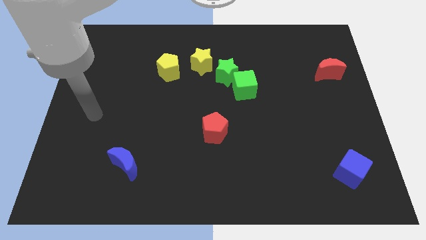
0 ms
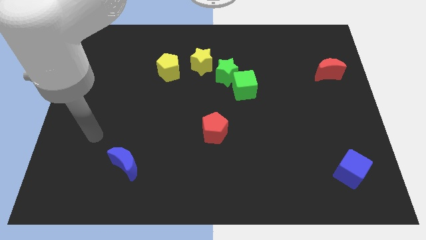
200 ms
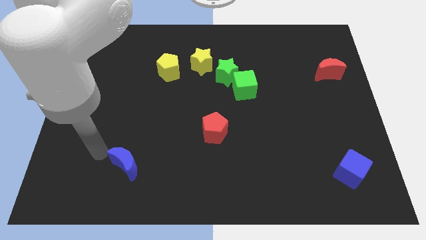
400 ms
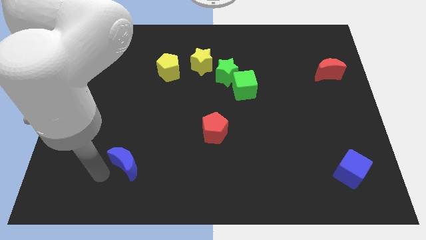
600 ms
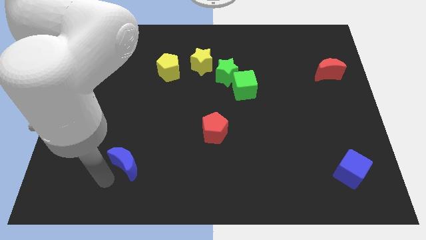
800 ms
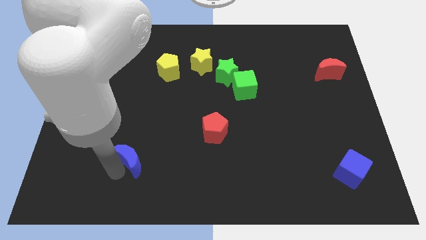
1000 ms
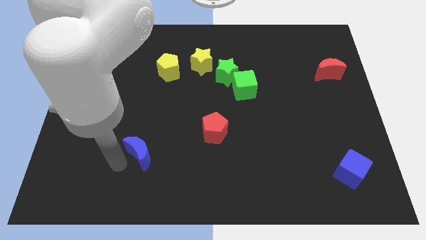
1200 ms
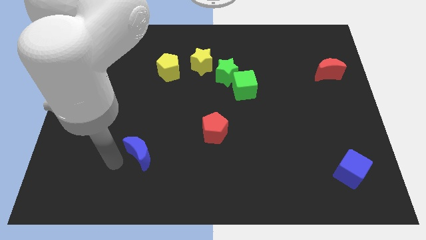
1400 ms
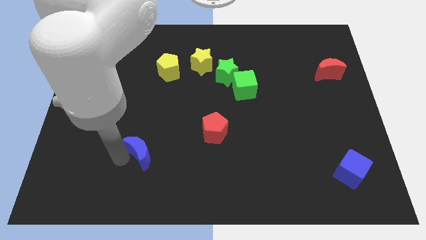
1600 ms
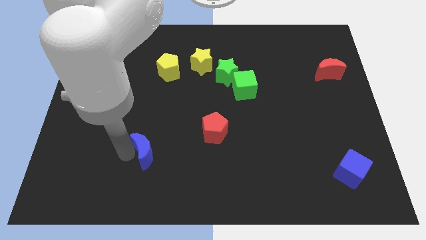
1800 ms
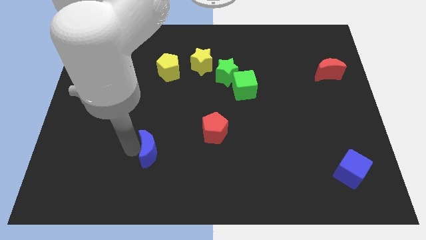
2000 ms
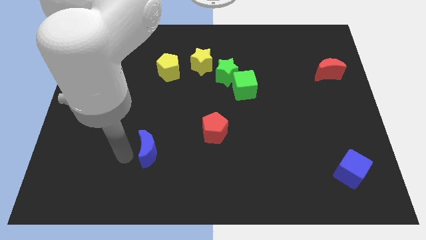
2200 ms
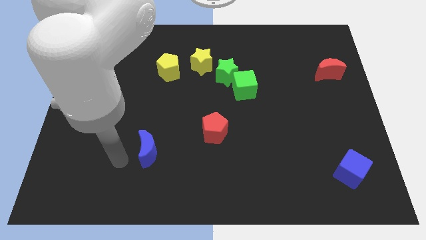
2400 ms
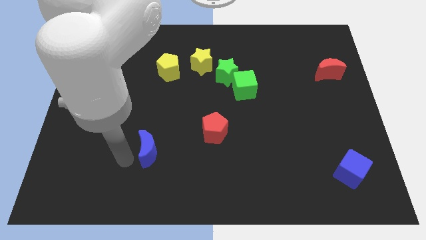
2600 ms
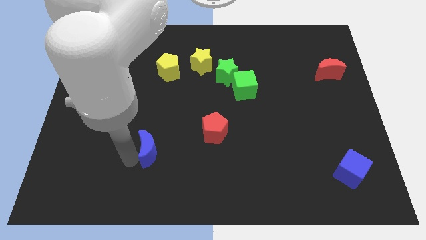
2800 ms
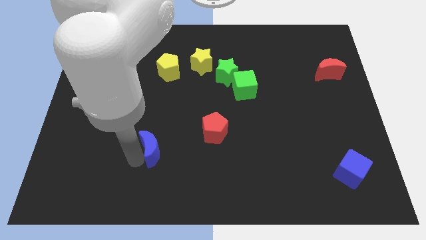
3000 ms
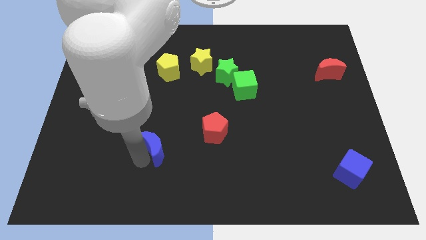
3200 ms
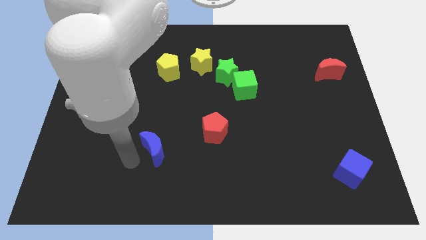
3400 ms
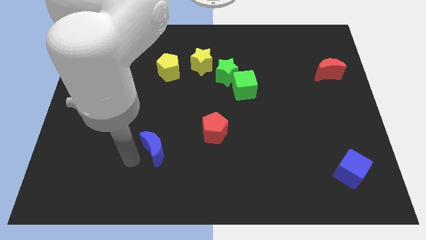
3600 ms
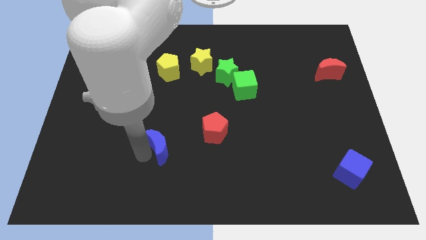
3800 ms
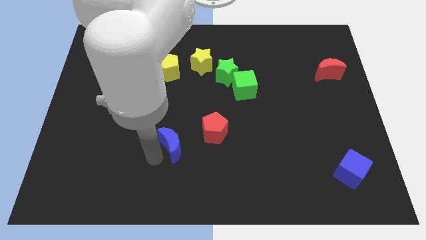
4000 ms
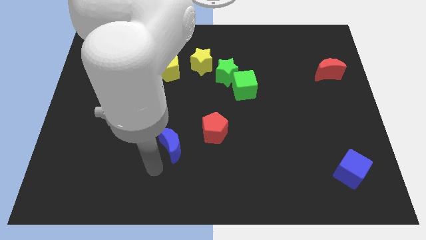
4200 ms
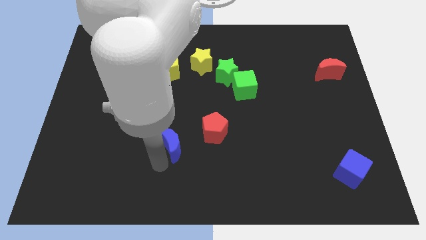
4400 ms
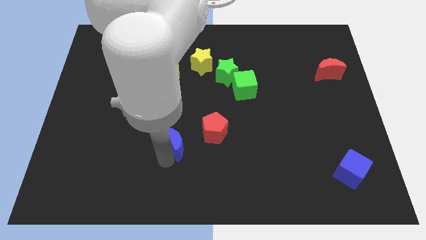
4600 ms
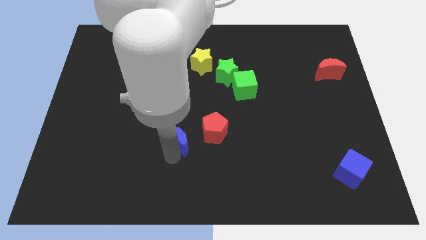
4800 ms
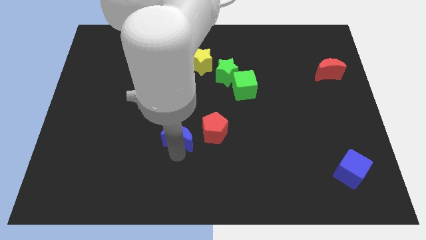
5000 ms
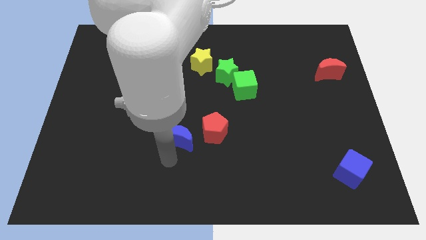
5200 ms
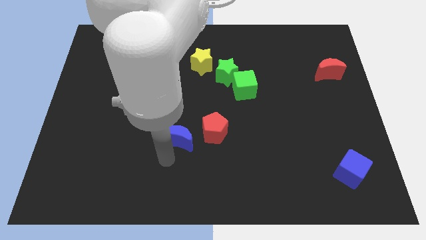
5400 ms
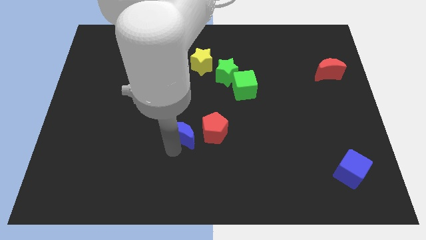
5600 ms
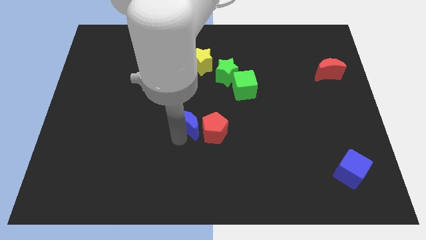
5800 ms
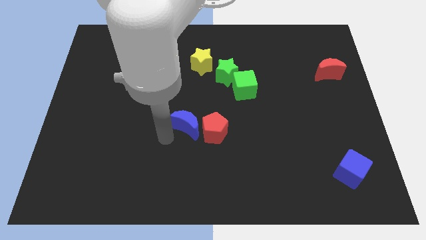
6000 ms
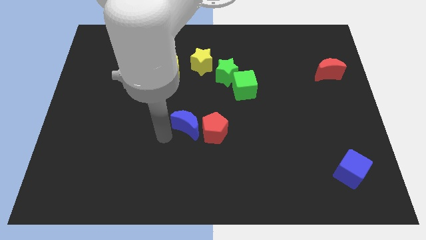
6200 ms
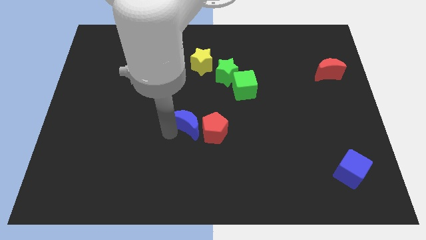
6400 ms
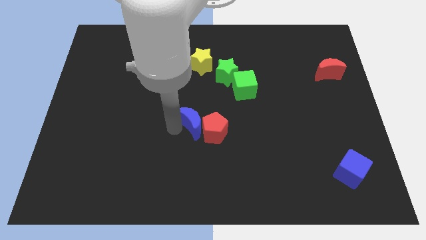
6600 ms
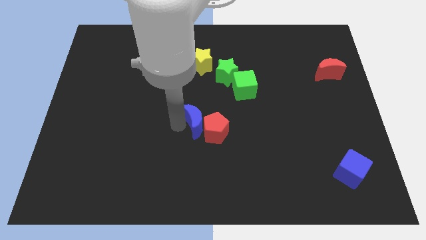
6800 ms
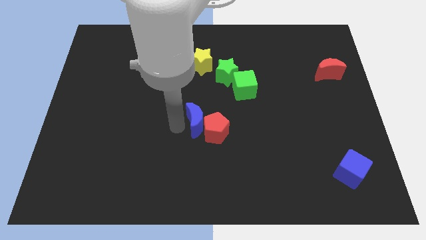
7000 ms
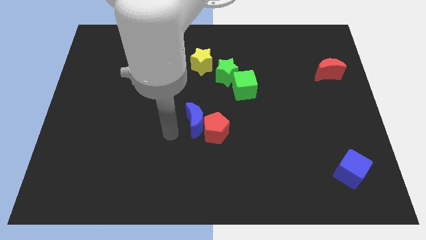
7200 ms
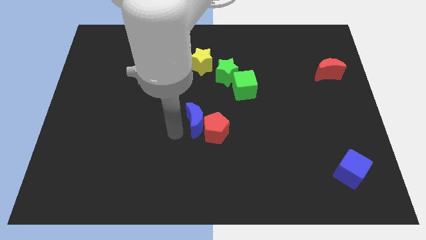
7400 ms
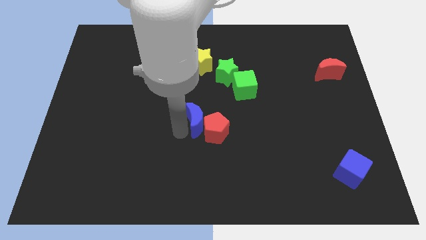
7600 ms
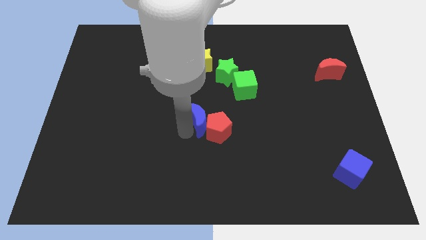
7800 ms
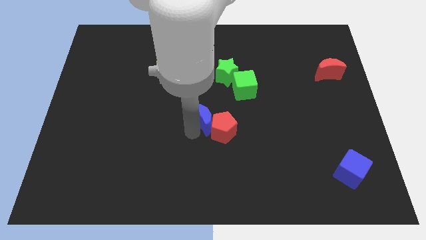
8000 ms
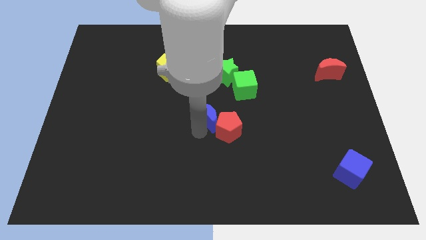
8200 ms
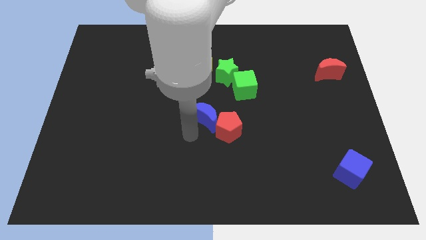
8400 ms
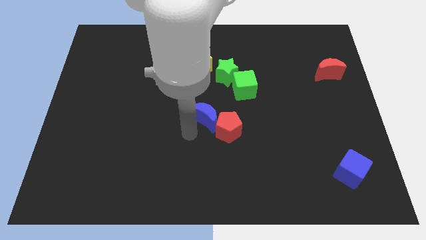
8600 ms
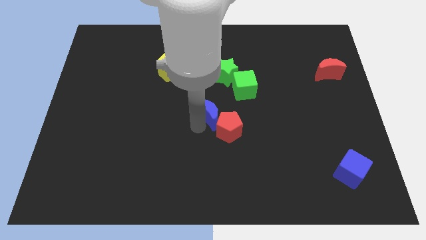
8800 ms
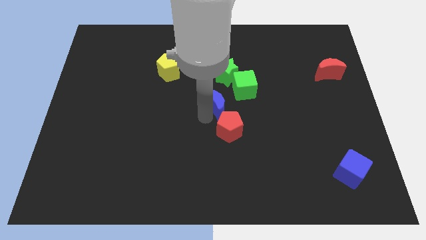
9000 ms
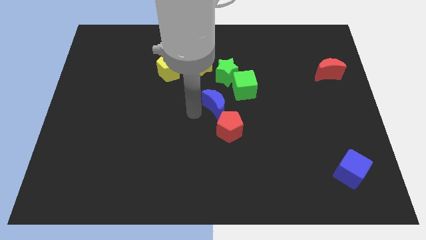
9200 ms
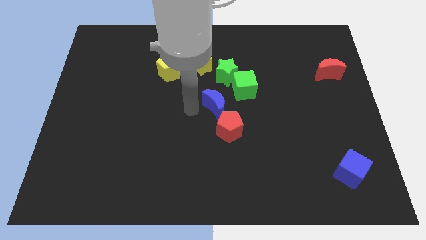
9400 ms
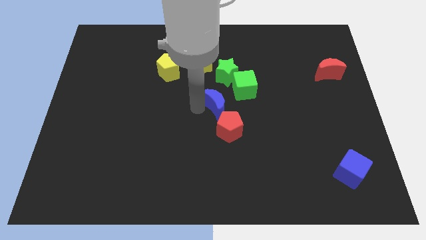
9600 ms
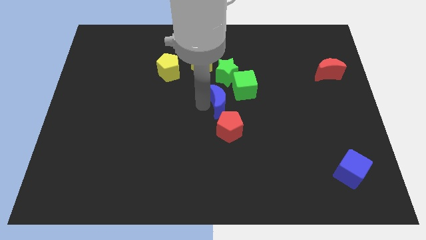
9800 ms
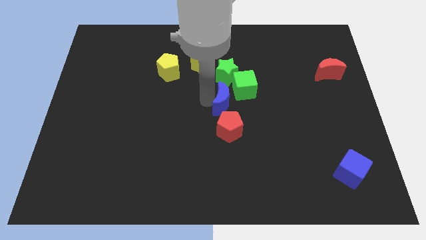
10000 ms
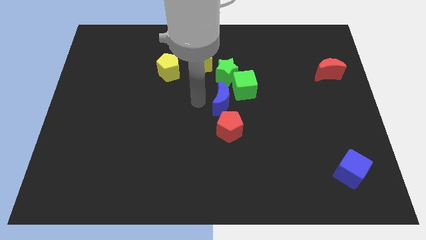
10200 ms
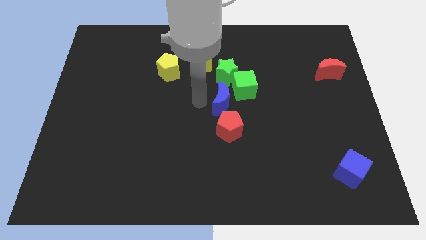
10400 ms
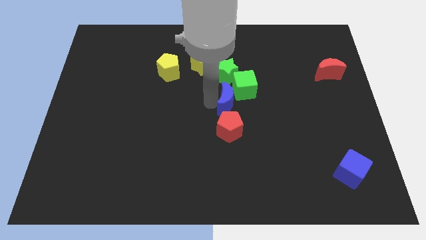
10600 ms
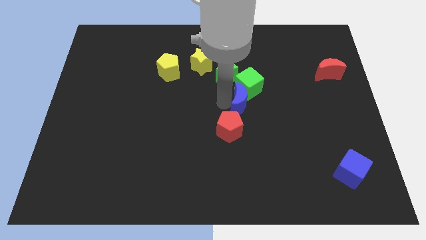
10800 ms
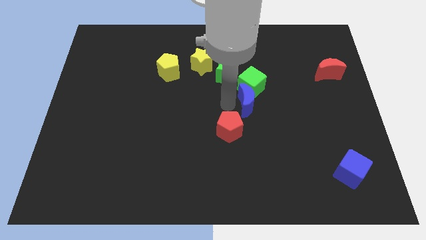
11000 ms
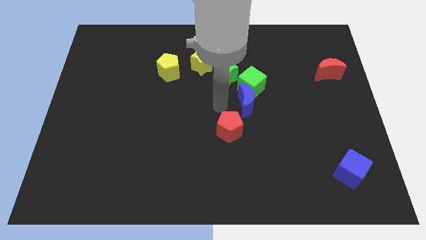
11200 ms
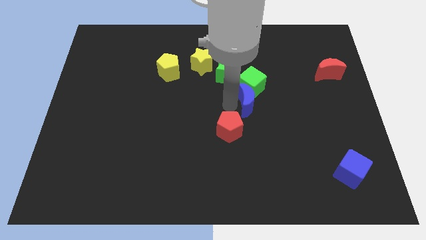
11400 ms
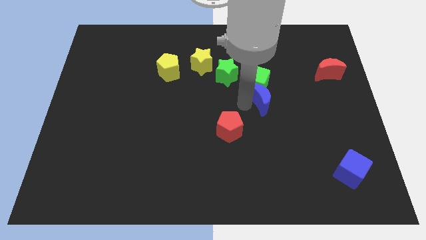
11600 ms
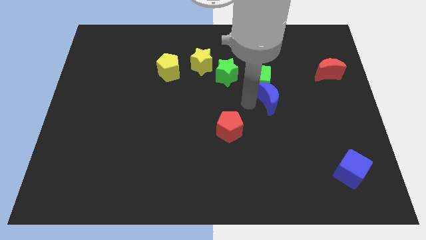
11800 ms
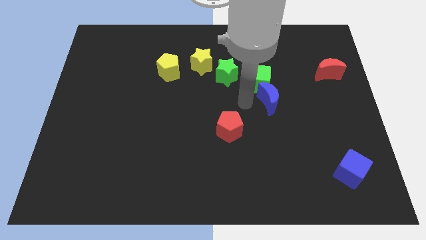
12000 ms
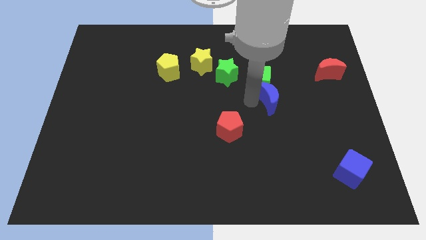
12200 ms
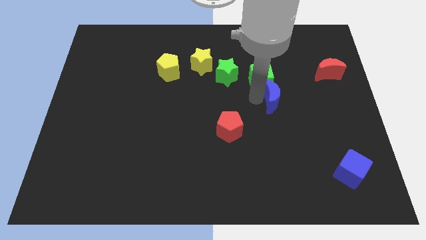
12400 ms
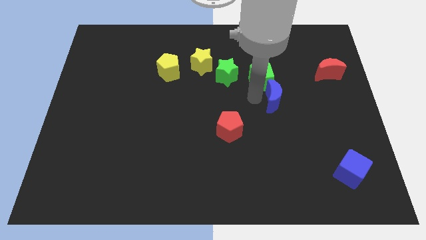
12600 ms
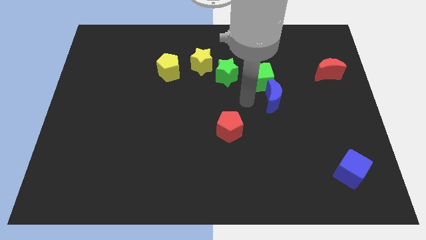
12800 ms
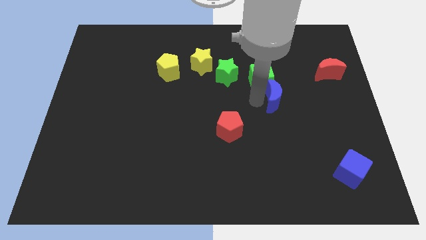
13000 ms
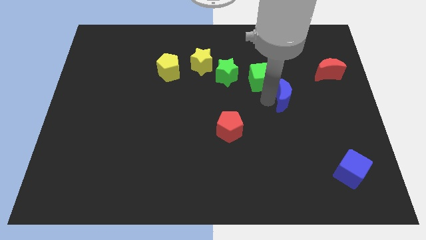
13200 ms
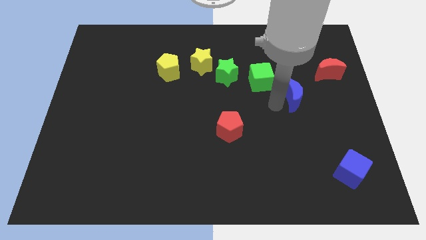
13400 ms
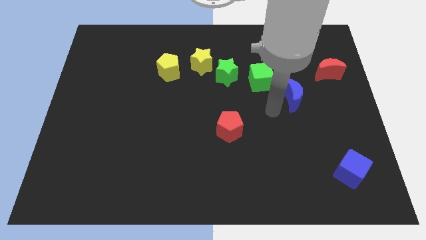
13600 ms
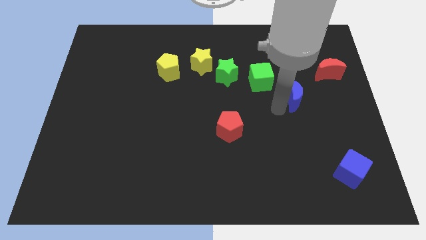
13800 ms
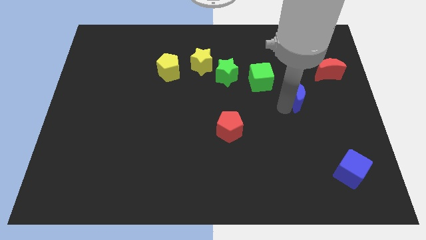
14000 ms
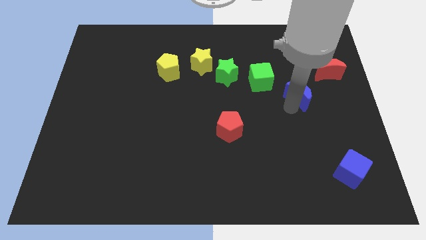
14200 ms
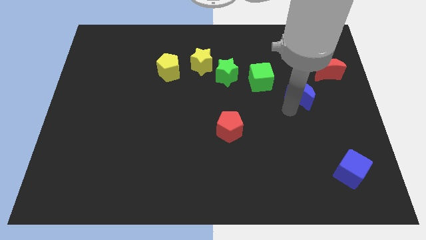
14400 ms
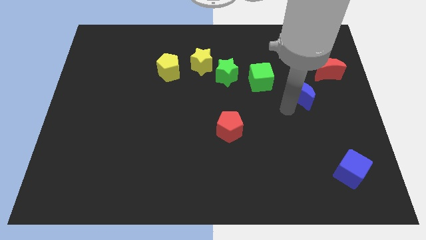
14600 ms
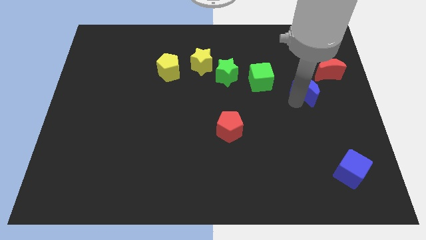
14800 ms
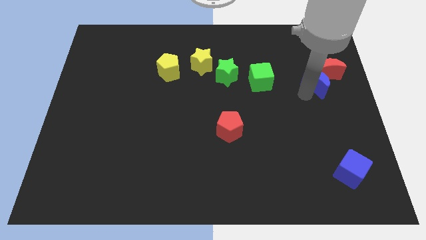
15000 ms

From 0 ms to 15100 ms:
slide the blue moon next to the red moon
